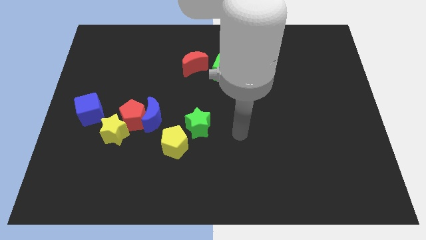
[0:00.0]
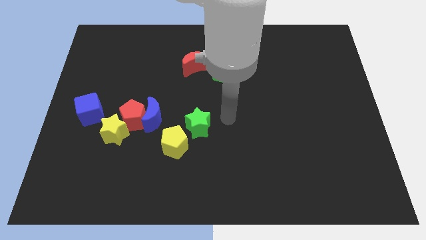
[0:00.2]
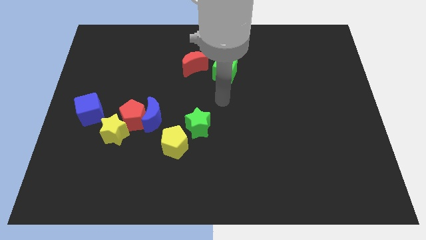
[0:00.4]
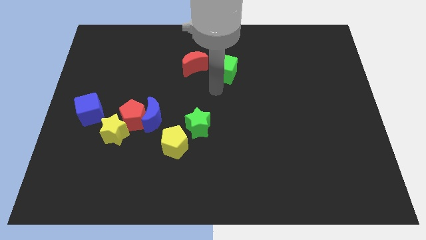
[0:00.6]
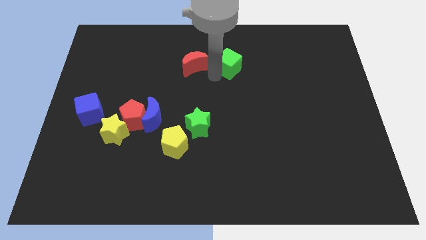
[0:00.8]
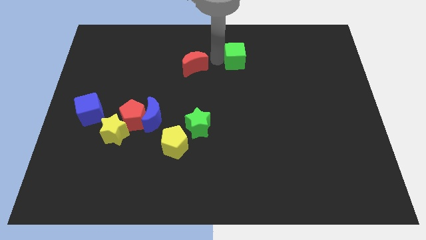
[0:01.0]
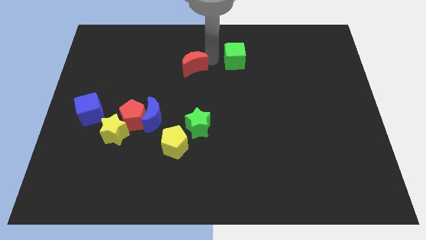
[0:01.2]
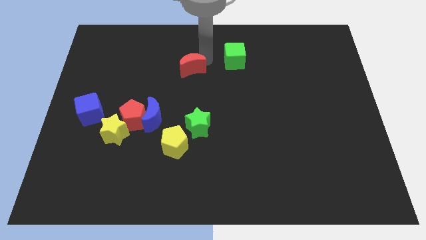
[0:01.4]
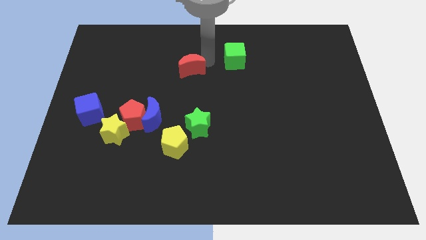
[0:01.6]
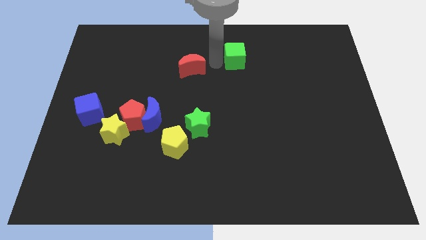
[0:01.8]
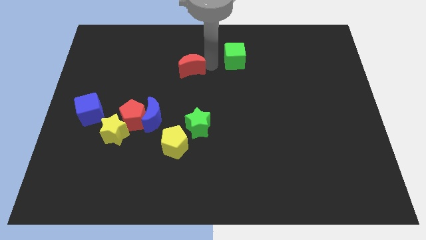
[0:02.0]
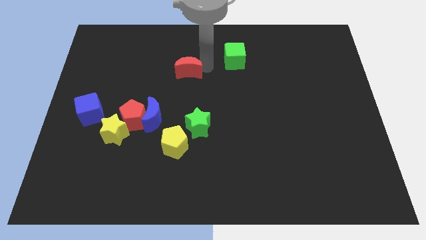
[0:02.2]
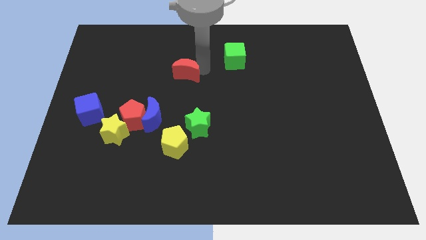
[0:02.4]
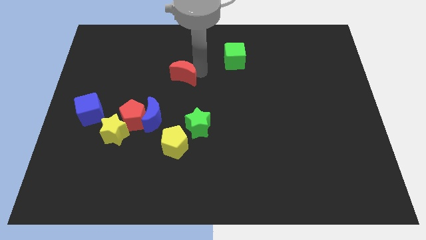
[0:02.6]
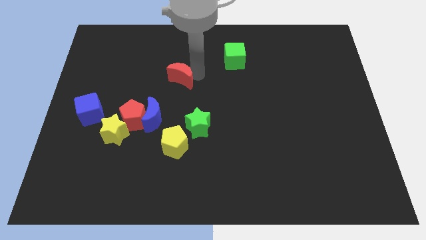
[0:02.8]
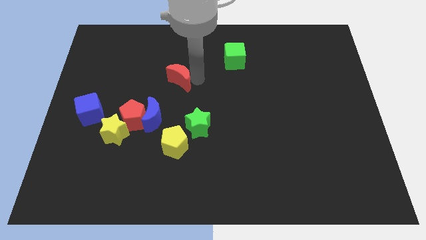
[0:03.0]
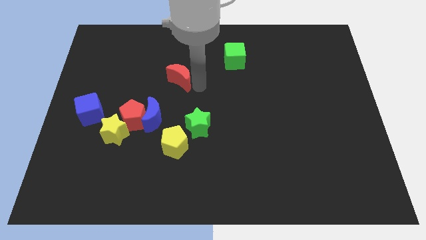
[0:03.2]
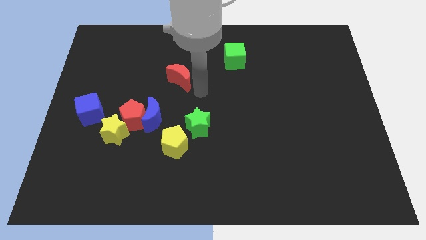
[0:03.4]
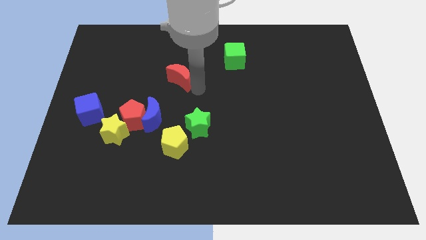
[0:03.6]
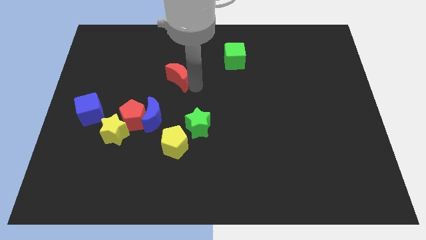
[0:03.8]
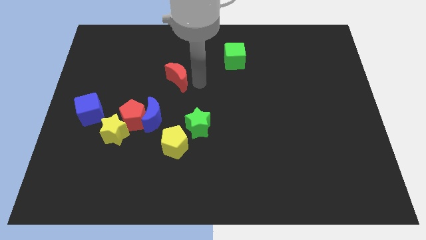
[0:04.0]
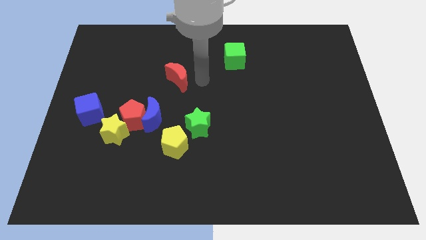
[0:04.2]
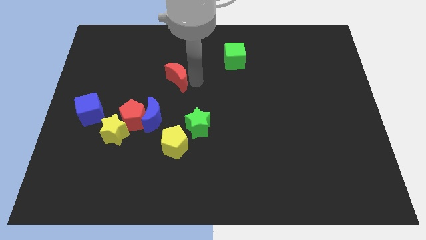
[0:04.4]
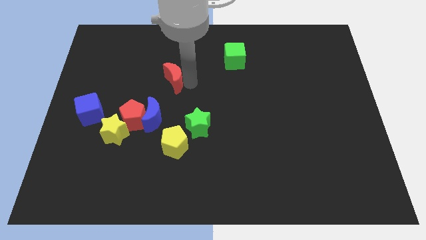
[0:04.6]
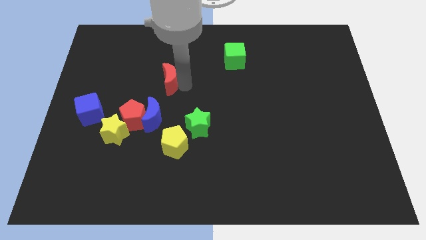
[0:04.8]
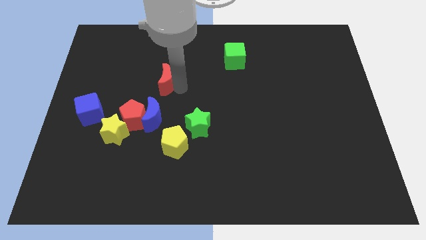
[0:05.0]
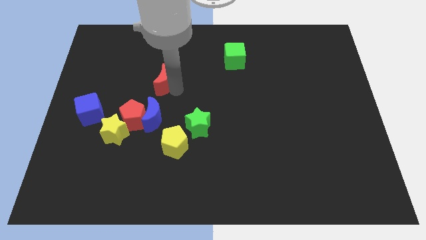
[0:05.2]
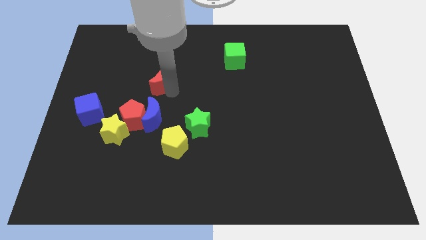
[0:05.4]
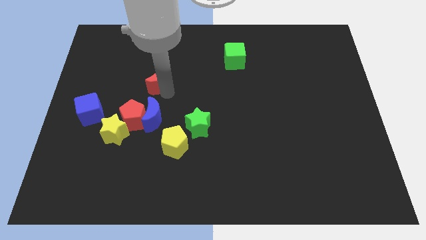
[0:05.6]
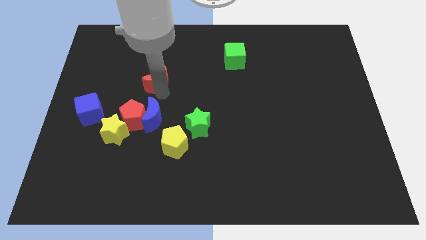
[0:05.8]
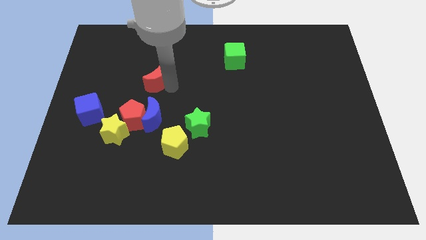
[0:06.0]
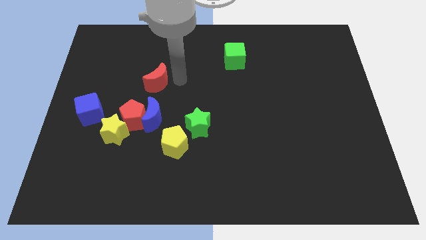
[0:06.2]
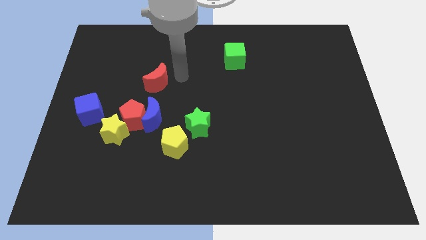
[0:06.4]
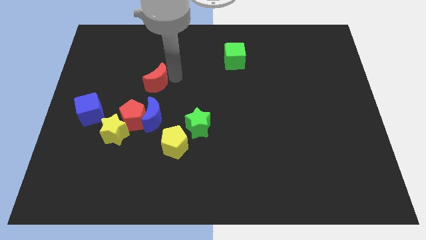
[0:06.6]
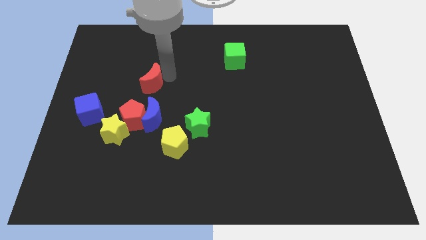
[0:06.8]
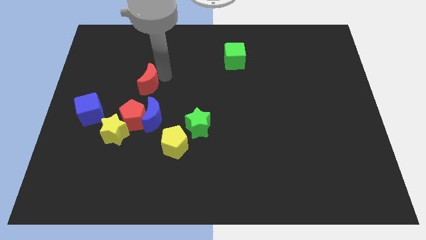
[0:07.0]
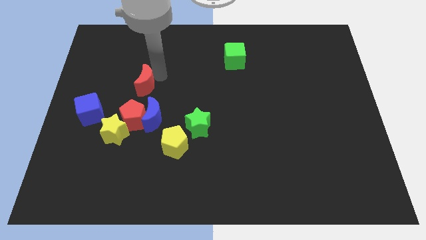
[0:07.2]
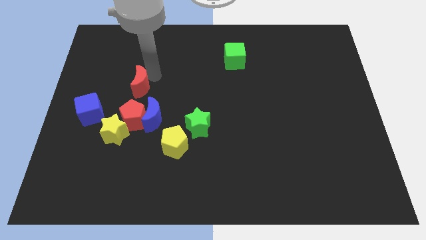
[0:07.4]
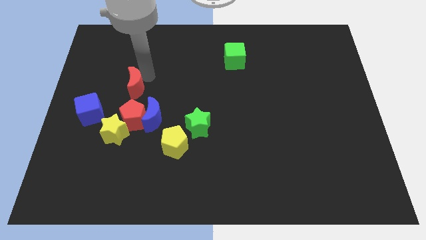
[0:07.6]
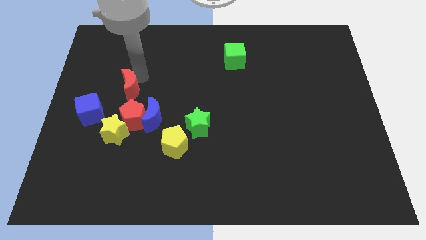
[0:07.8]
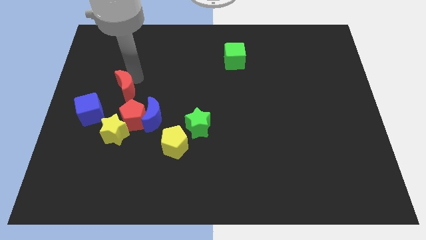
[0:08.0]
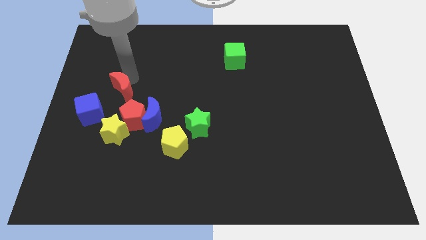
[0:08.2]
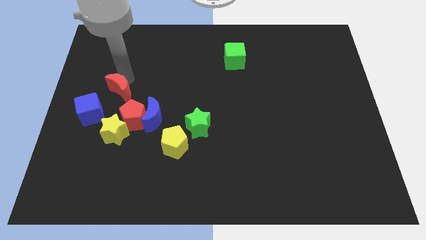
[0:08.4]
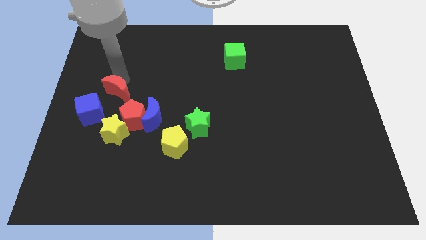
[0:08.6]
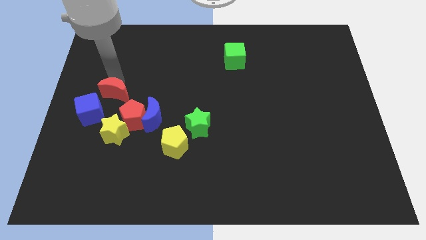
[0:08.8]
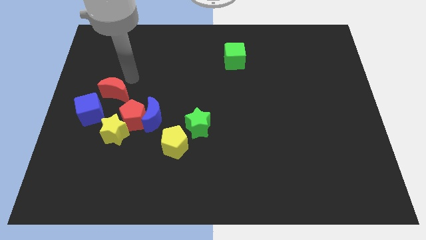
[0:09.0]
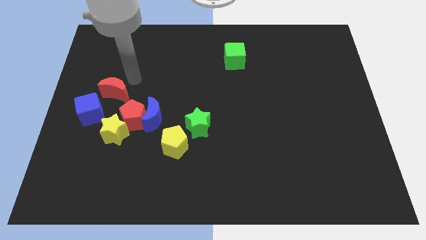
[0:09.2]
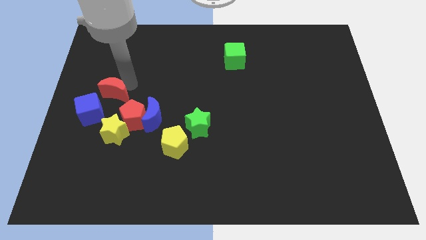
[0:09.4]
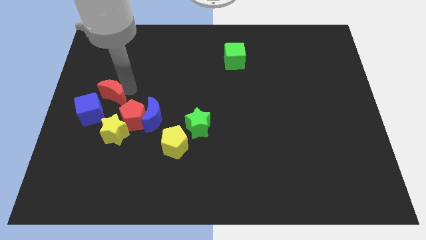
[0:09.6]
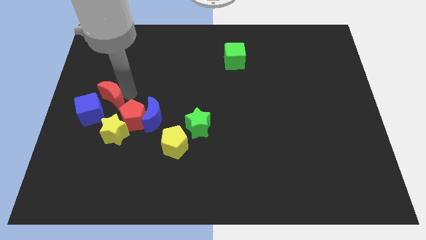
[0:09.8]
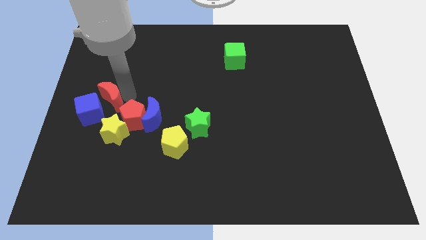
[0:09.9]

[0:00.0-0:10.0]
put the red moon to the blue cube

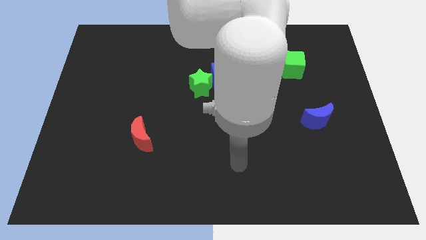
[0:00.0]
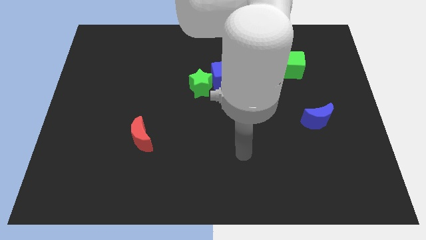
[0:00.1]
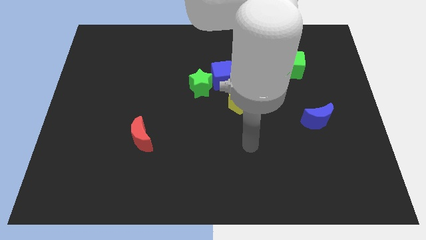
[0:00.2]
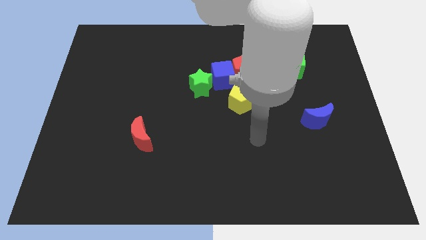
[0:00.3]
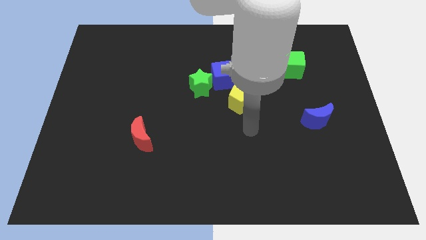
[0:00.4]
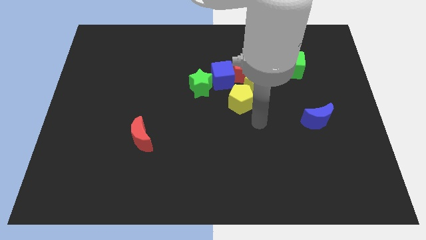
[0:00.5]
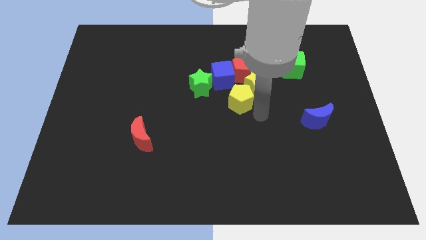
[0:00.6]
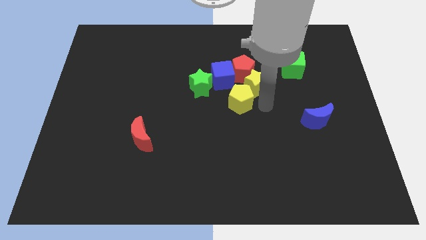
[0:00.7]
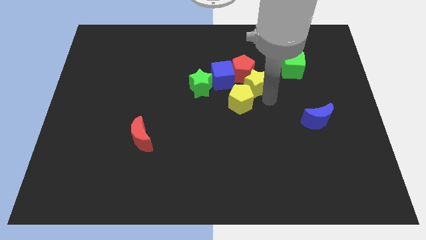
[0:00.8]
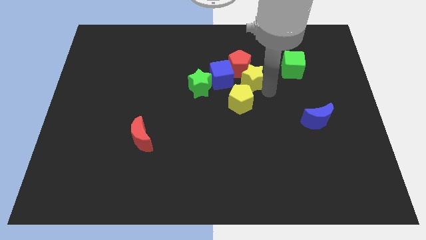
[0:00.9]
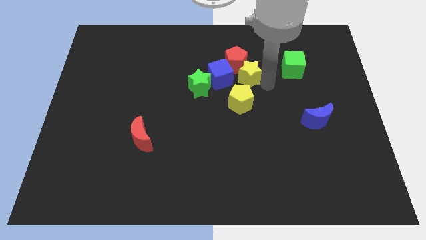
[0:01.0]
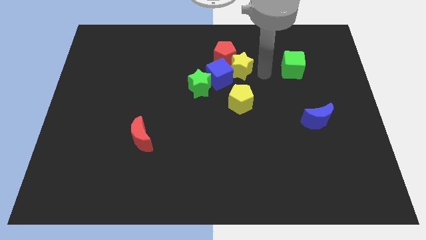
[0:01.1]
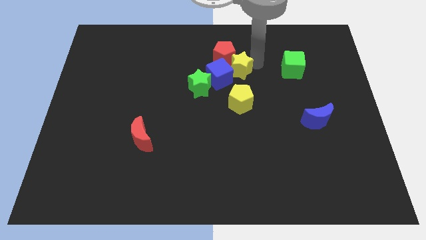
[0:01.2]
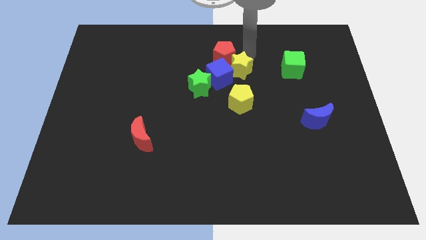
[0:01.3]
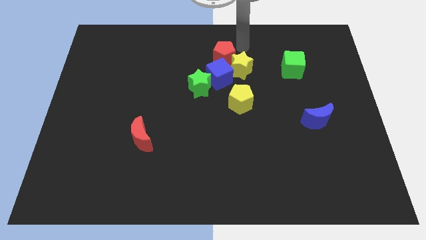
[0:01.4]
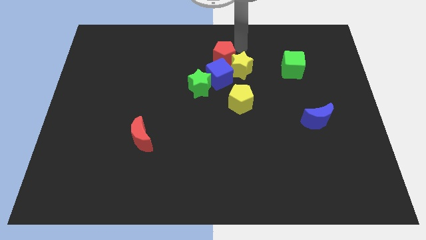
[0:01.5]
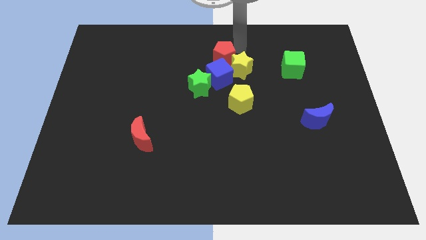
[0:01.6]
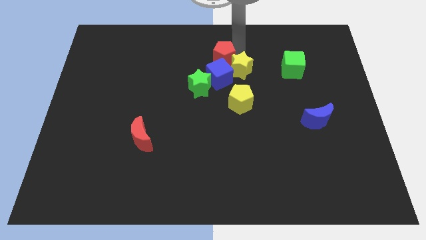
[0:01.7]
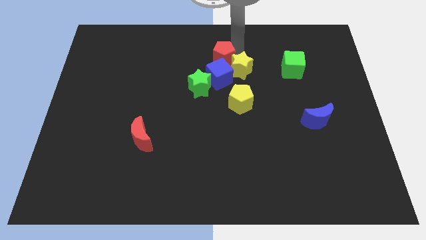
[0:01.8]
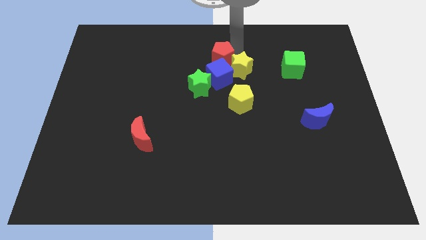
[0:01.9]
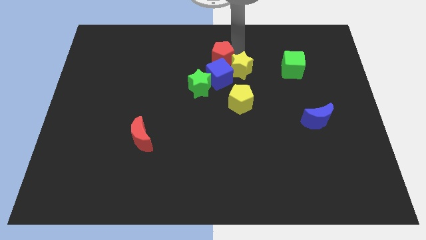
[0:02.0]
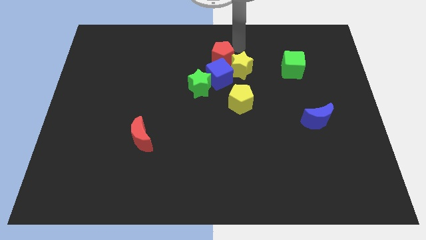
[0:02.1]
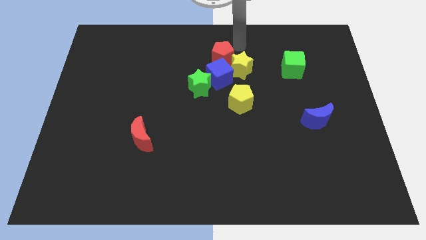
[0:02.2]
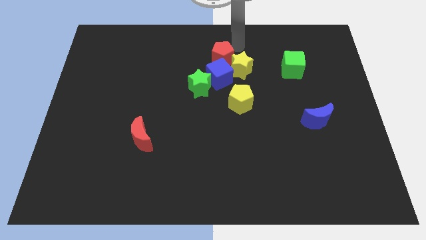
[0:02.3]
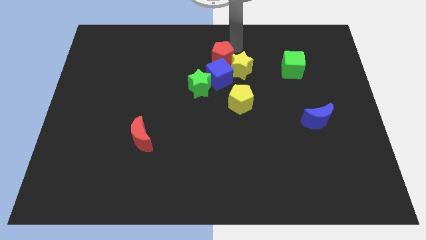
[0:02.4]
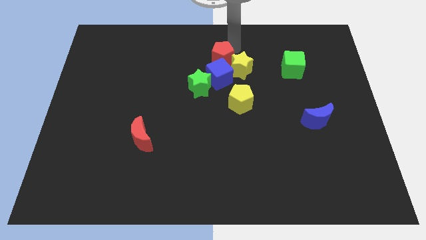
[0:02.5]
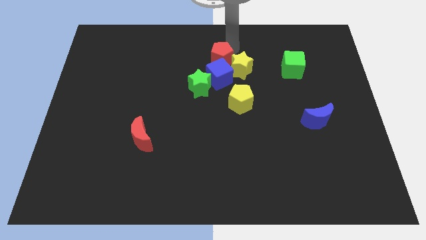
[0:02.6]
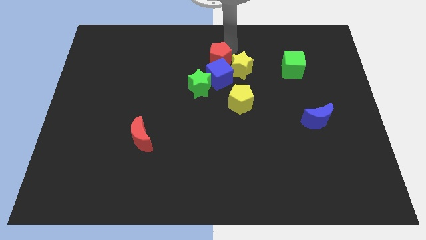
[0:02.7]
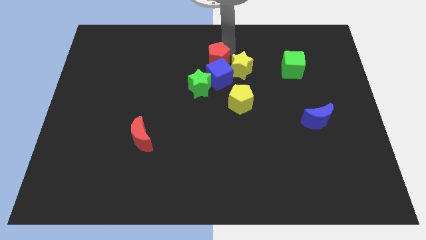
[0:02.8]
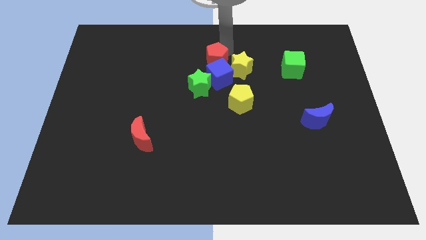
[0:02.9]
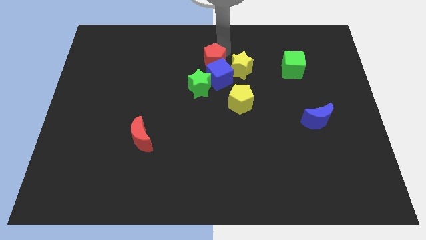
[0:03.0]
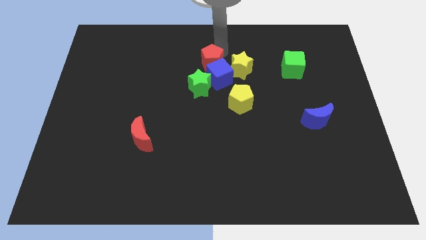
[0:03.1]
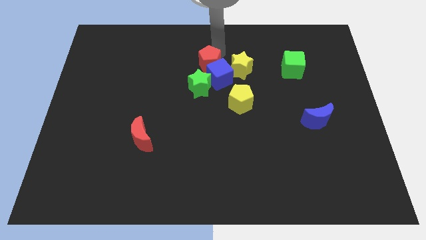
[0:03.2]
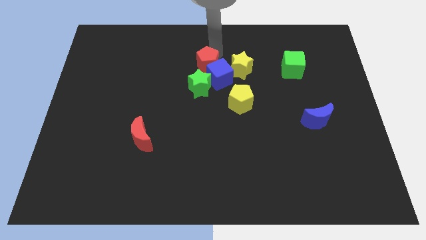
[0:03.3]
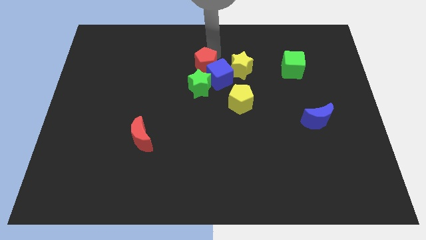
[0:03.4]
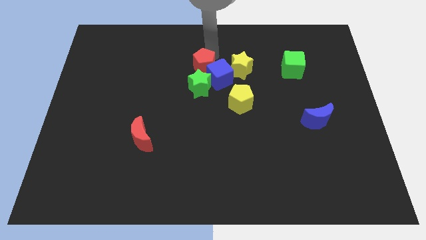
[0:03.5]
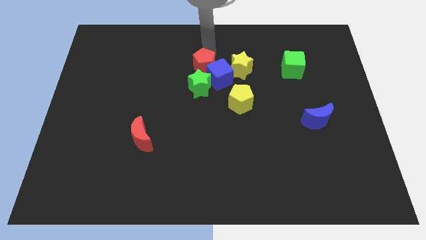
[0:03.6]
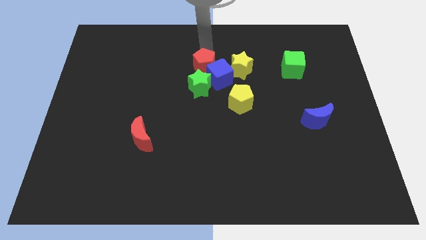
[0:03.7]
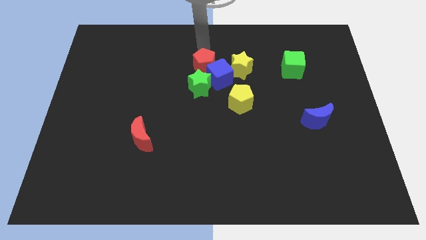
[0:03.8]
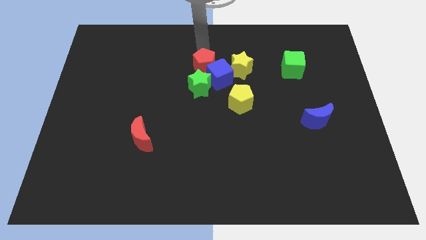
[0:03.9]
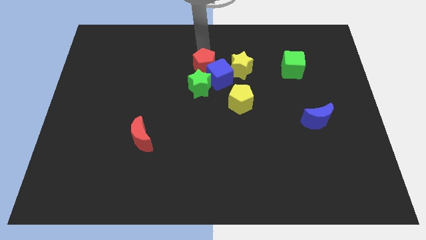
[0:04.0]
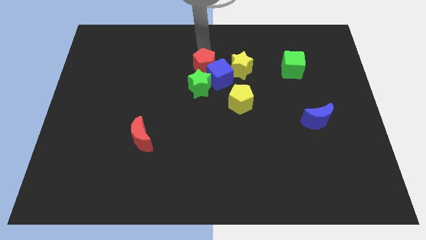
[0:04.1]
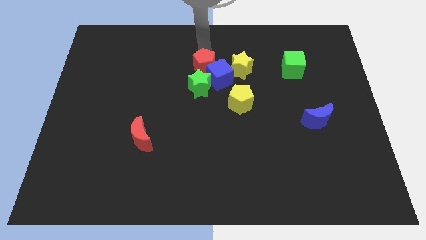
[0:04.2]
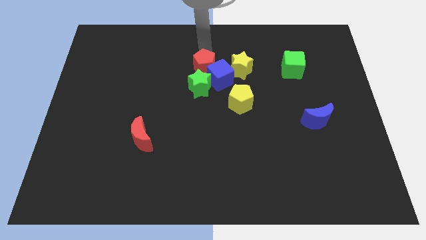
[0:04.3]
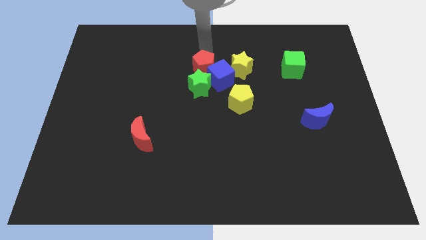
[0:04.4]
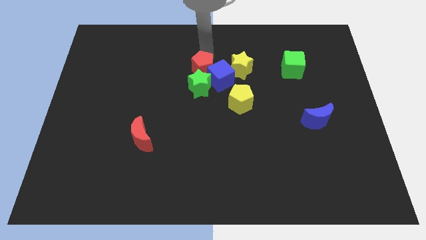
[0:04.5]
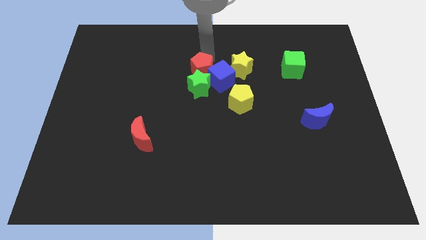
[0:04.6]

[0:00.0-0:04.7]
move the red pentagon close to the green star
